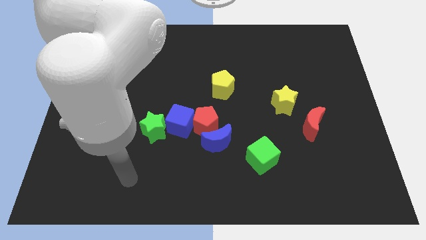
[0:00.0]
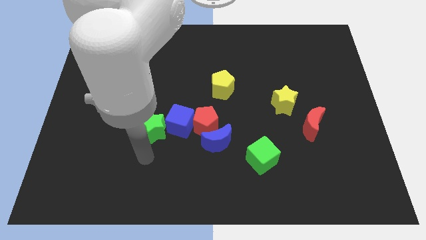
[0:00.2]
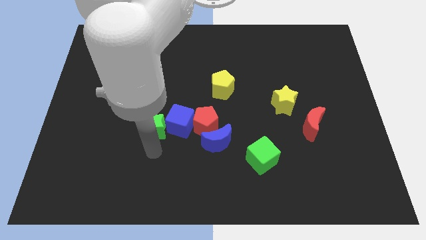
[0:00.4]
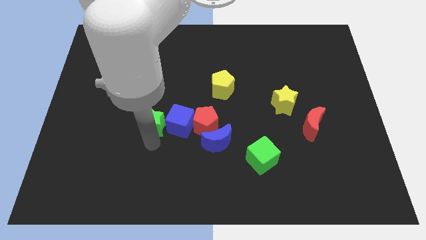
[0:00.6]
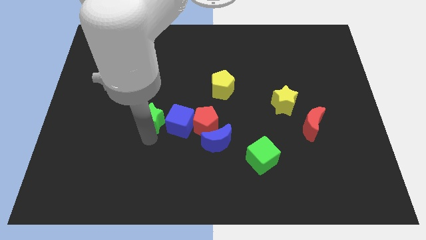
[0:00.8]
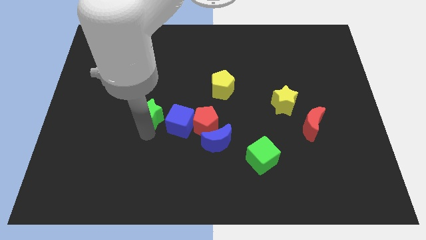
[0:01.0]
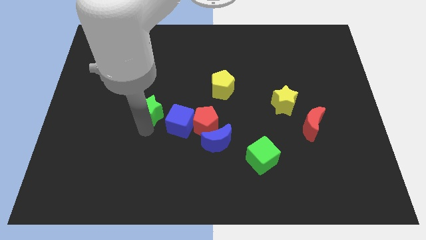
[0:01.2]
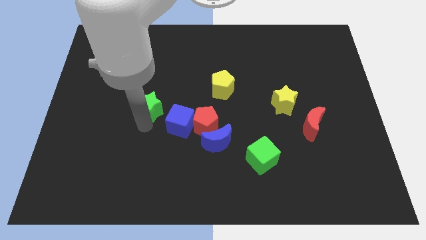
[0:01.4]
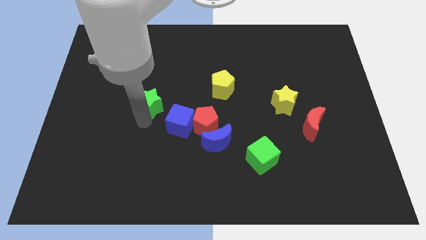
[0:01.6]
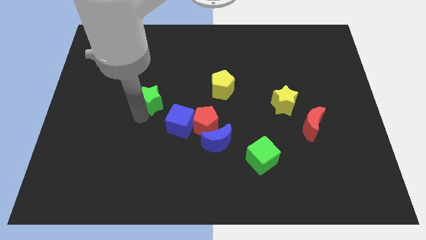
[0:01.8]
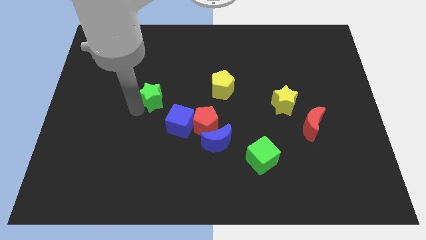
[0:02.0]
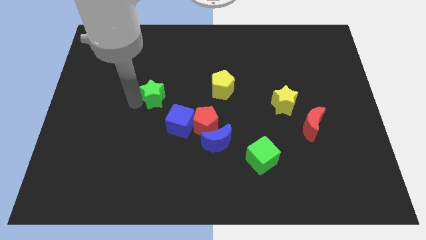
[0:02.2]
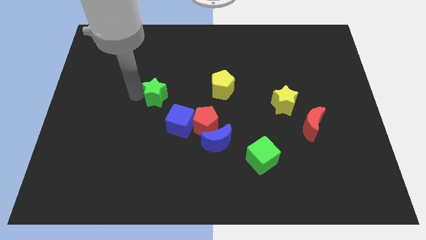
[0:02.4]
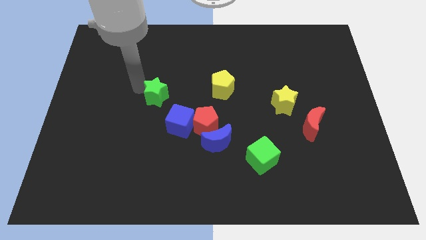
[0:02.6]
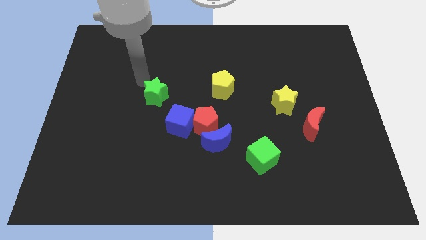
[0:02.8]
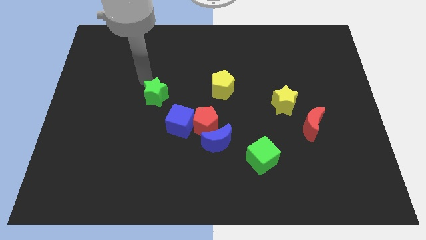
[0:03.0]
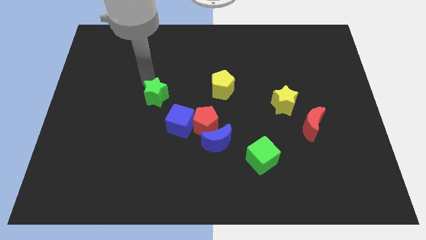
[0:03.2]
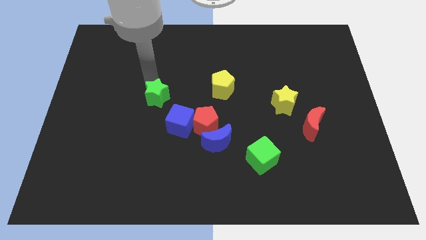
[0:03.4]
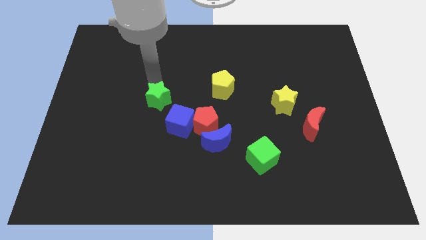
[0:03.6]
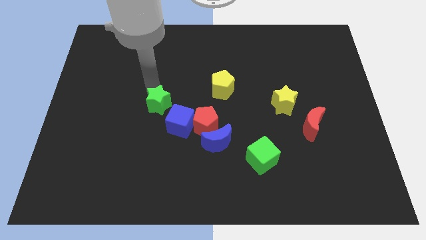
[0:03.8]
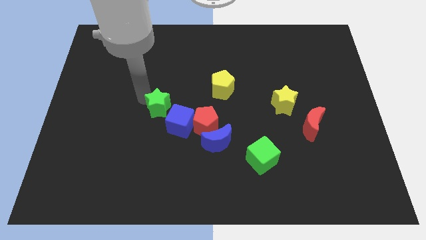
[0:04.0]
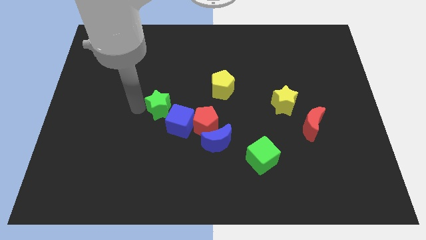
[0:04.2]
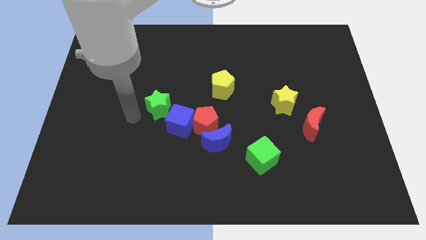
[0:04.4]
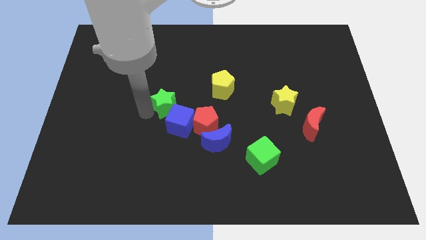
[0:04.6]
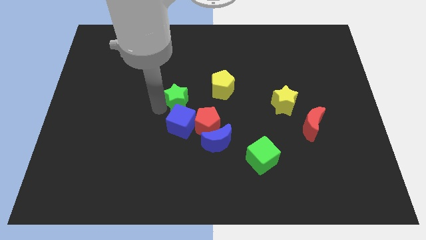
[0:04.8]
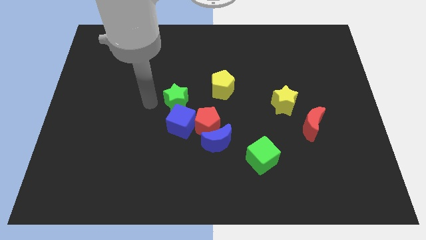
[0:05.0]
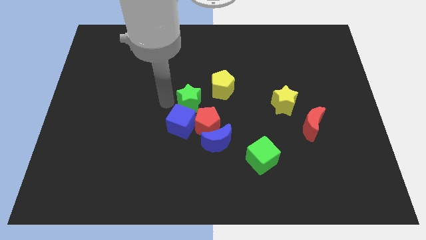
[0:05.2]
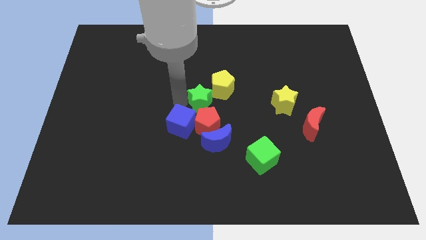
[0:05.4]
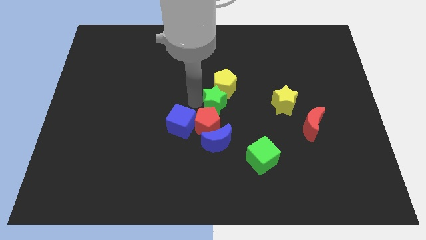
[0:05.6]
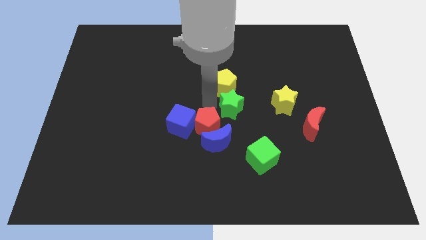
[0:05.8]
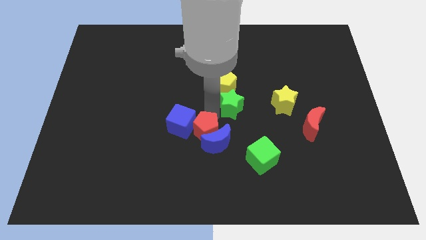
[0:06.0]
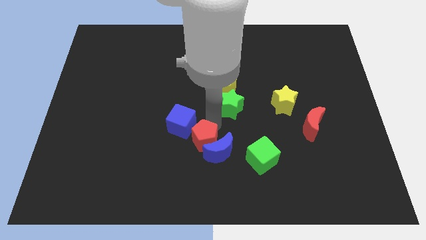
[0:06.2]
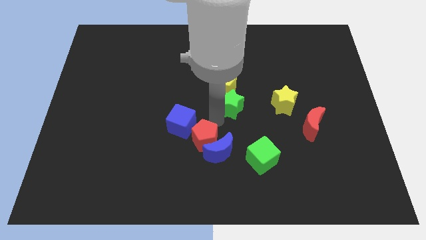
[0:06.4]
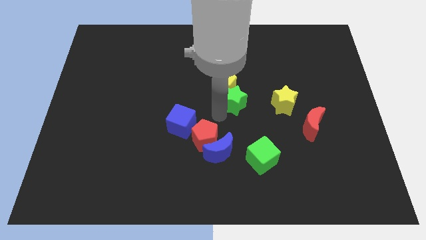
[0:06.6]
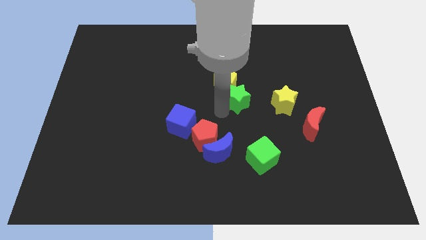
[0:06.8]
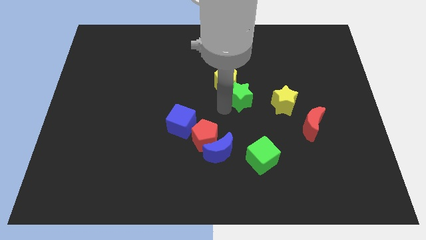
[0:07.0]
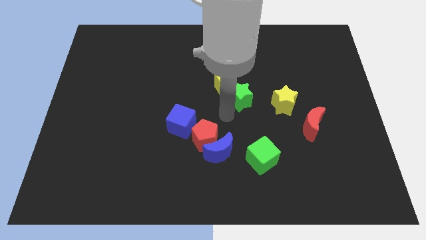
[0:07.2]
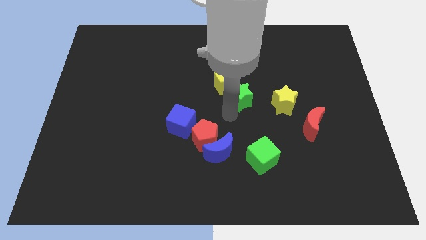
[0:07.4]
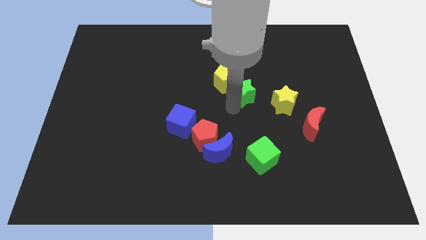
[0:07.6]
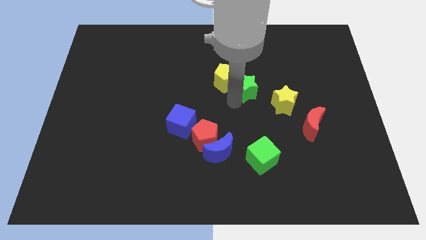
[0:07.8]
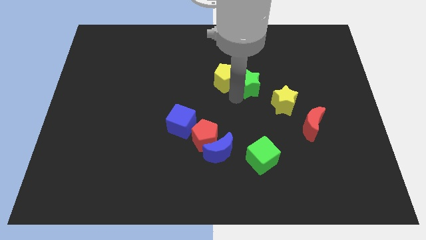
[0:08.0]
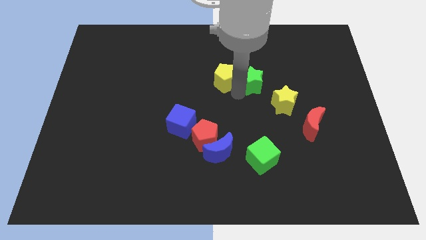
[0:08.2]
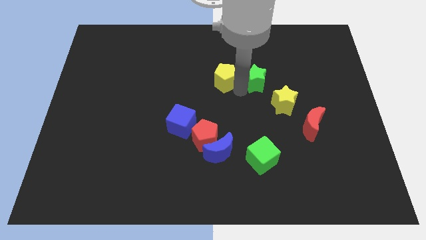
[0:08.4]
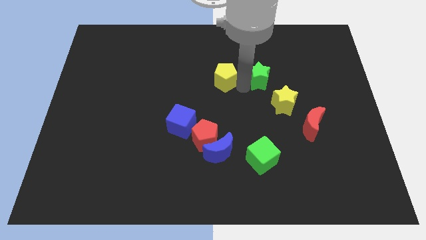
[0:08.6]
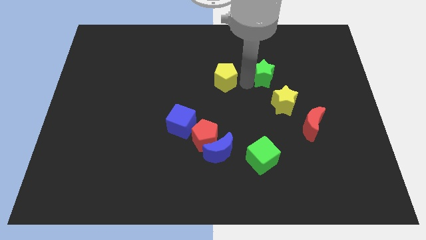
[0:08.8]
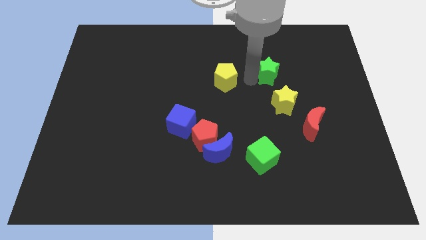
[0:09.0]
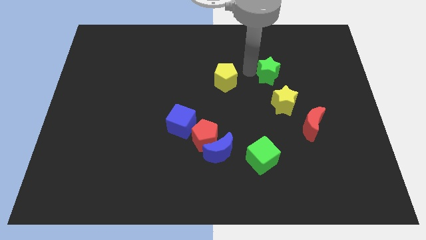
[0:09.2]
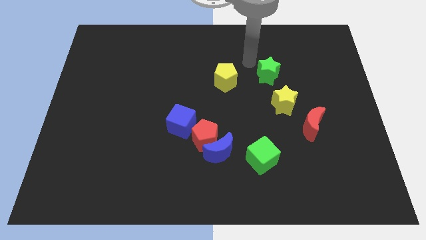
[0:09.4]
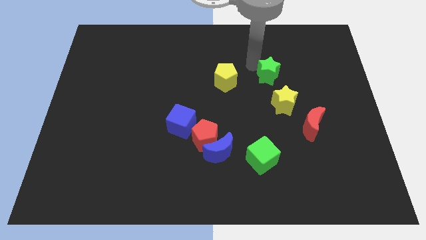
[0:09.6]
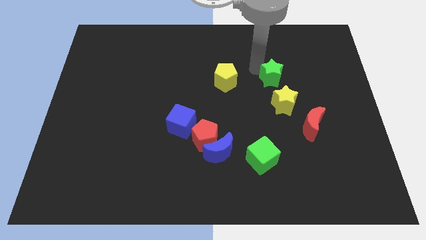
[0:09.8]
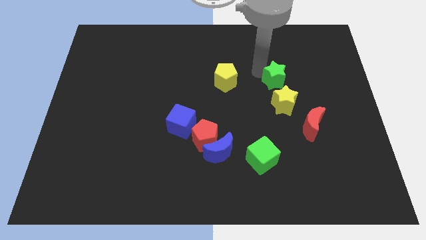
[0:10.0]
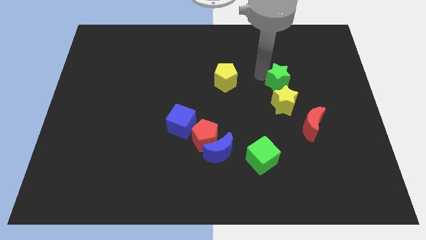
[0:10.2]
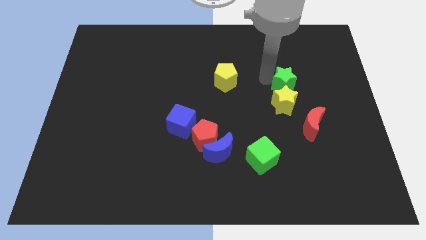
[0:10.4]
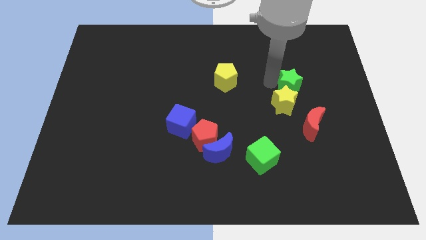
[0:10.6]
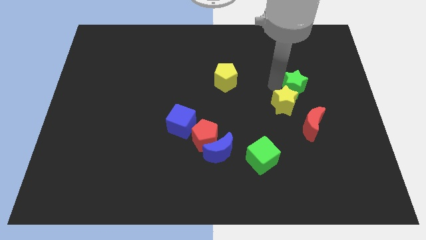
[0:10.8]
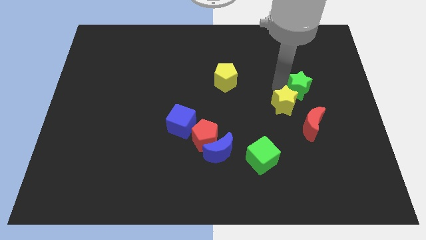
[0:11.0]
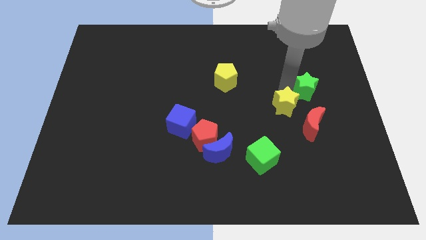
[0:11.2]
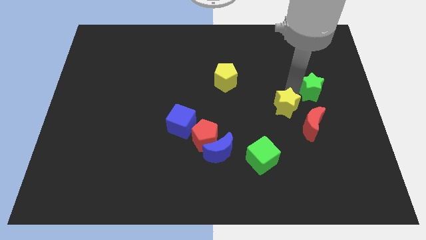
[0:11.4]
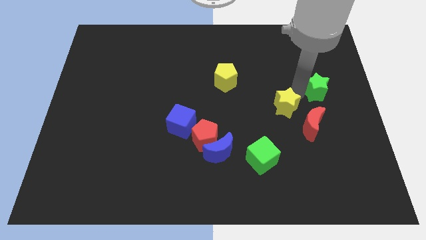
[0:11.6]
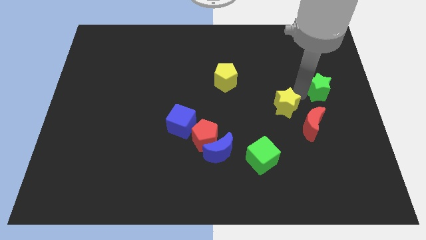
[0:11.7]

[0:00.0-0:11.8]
slide the green star to the right side

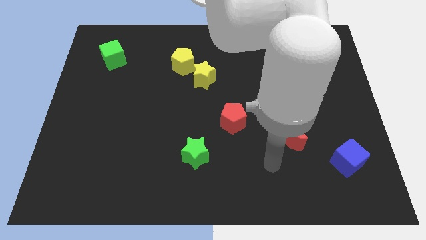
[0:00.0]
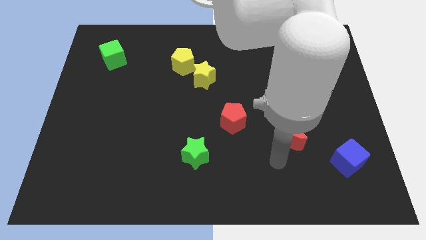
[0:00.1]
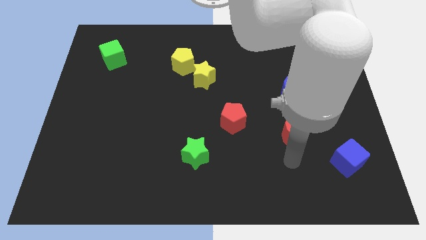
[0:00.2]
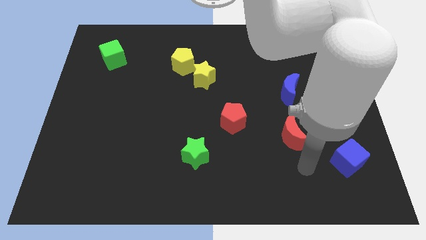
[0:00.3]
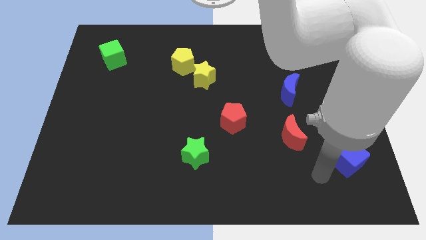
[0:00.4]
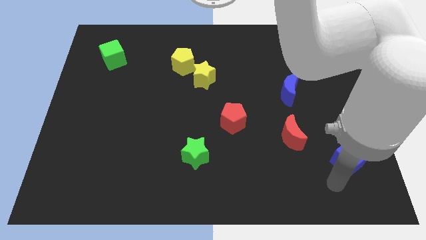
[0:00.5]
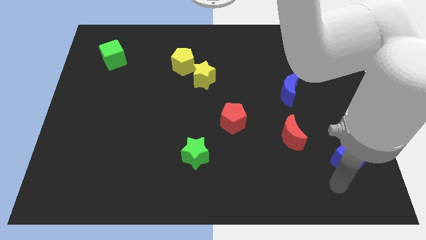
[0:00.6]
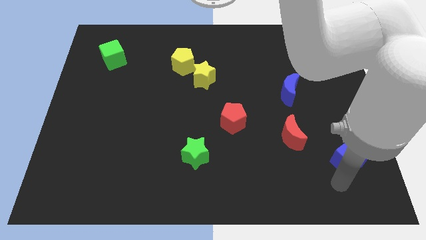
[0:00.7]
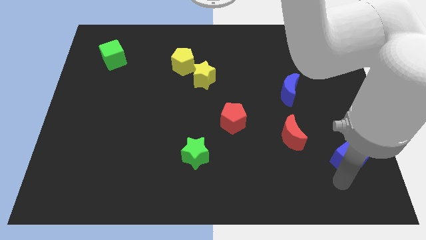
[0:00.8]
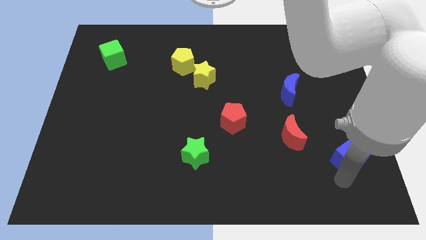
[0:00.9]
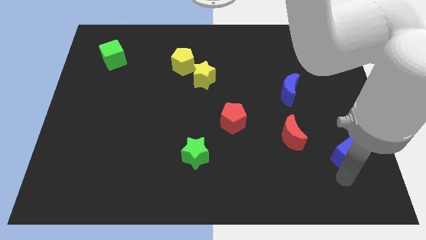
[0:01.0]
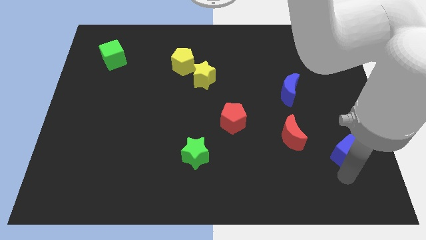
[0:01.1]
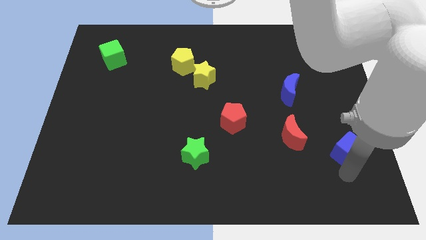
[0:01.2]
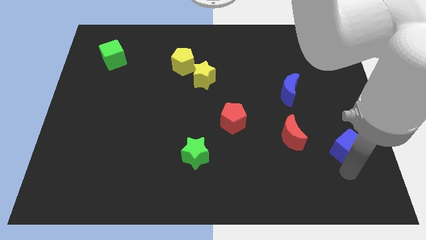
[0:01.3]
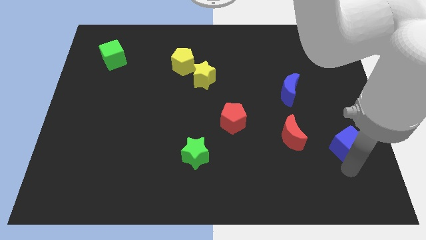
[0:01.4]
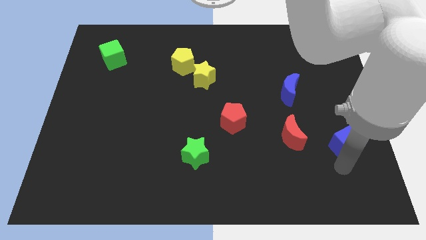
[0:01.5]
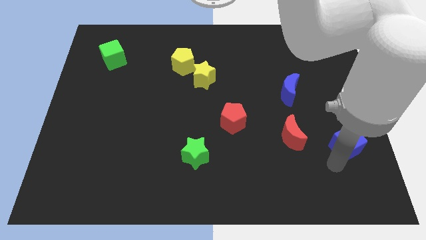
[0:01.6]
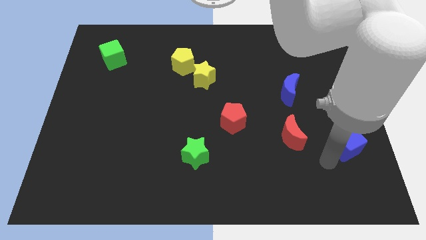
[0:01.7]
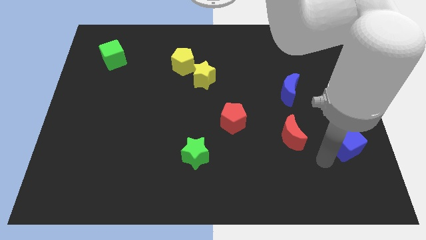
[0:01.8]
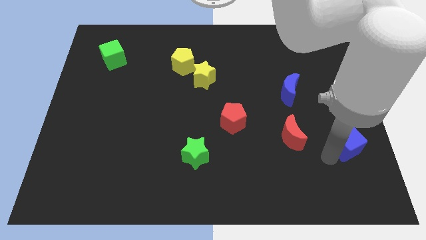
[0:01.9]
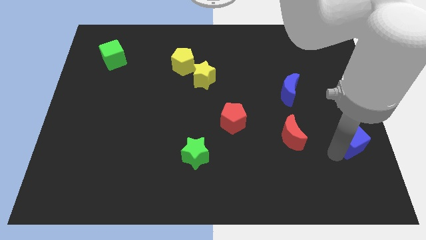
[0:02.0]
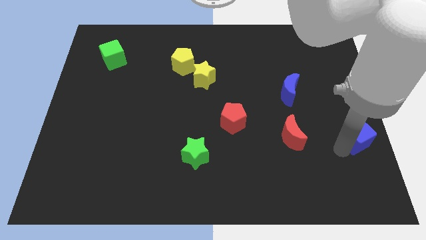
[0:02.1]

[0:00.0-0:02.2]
slide the blue cube to the right side of the board
